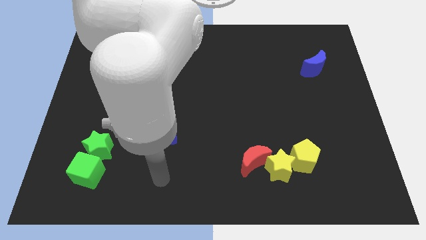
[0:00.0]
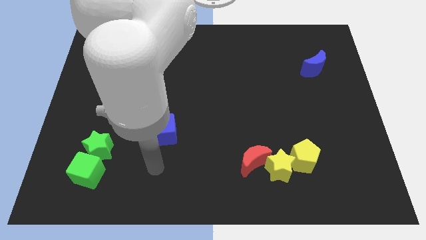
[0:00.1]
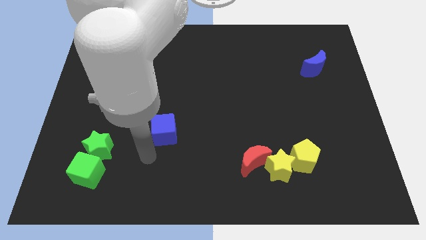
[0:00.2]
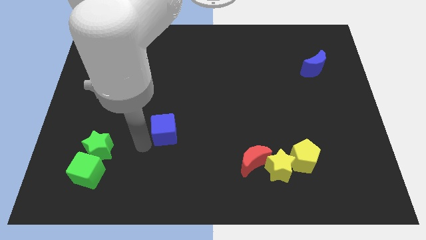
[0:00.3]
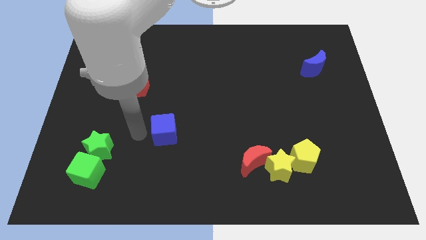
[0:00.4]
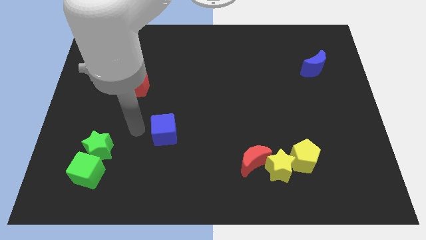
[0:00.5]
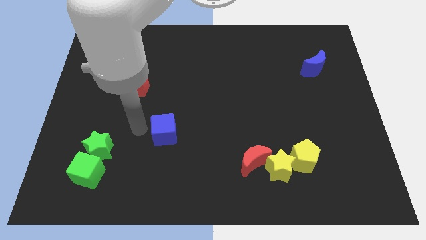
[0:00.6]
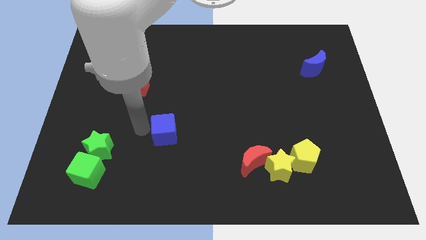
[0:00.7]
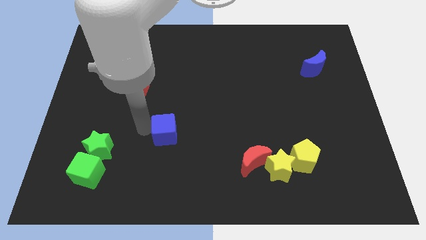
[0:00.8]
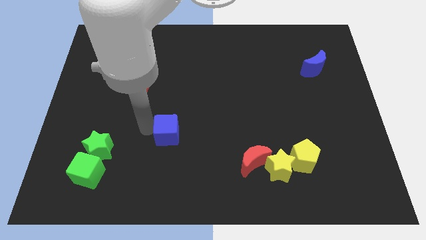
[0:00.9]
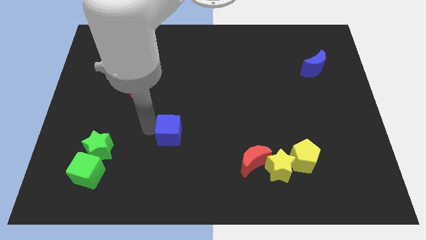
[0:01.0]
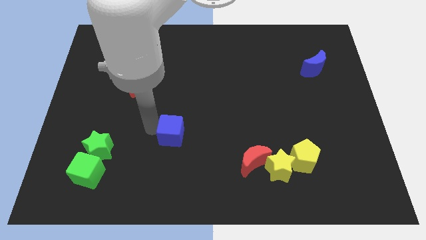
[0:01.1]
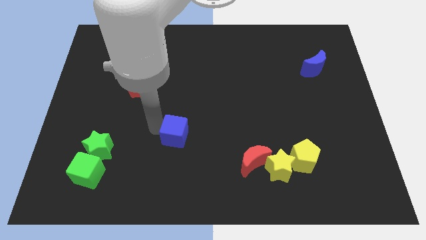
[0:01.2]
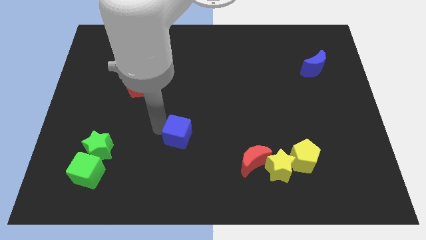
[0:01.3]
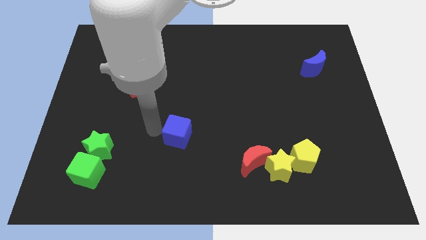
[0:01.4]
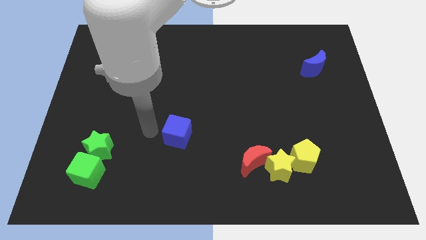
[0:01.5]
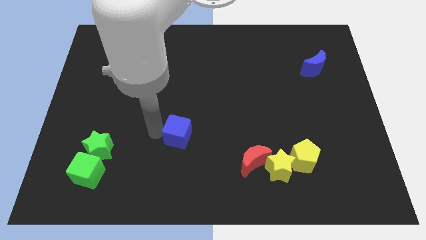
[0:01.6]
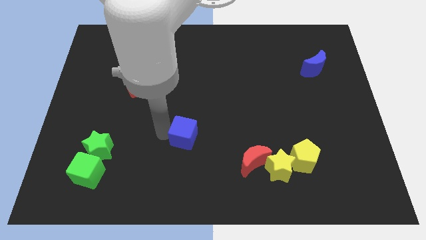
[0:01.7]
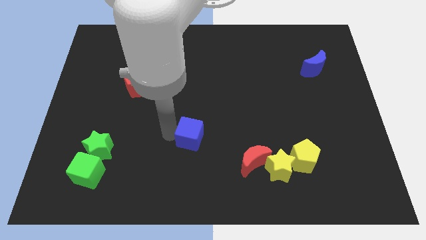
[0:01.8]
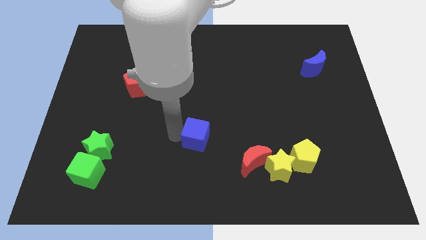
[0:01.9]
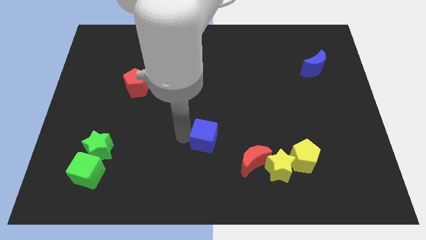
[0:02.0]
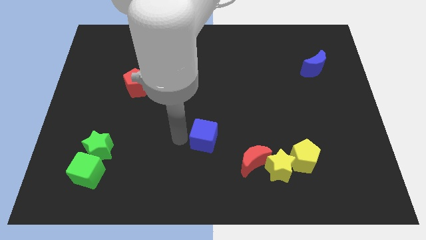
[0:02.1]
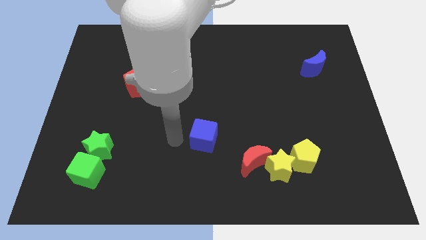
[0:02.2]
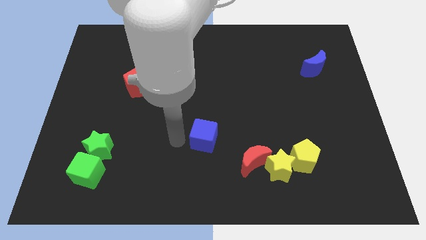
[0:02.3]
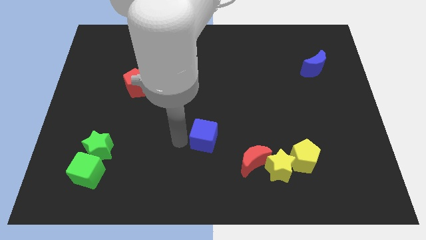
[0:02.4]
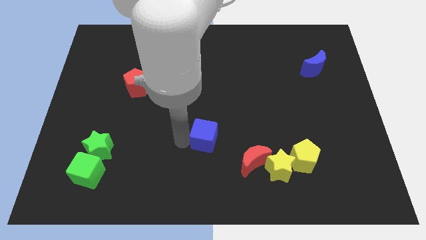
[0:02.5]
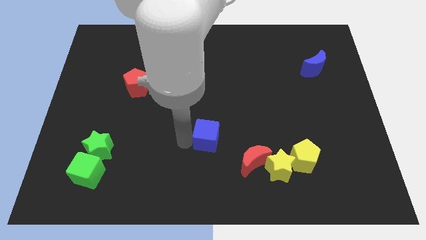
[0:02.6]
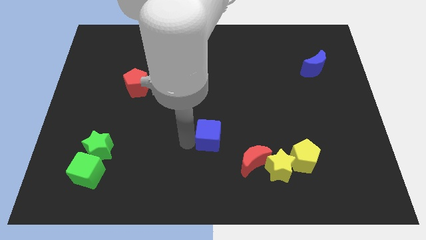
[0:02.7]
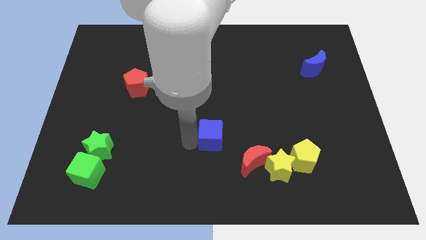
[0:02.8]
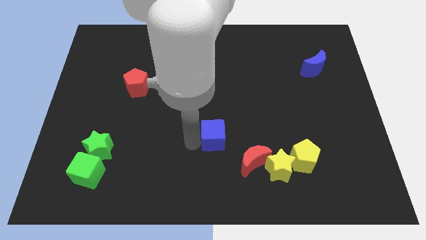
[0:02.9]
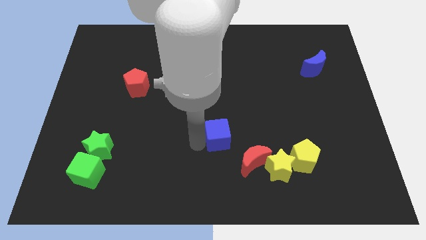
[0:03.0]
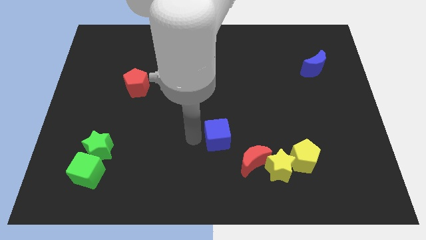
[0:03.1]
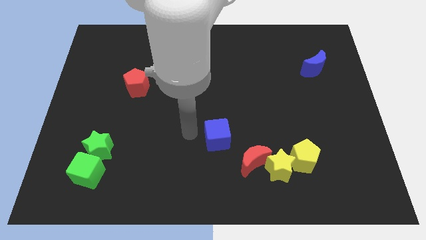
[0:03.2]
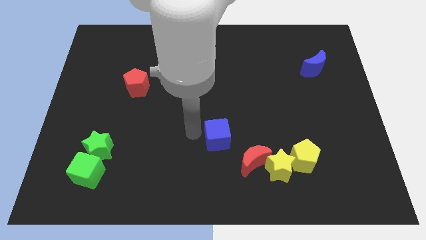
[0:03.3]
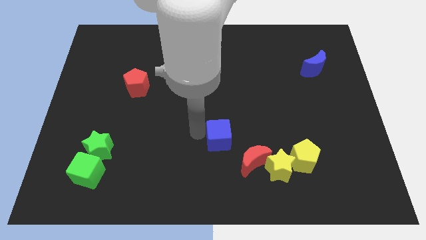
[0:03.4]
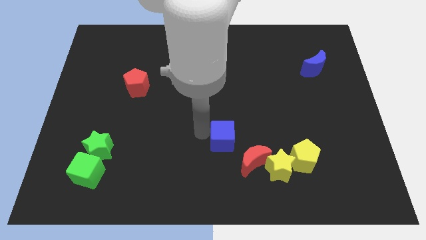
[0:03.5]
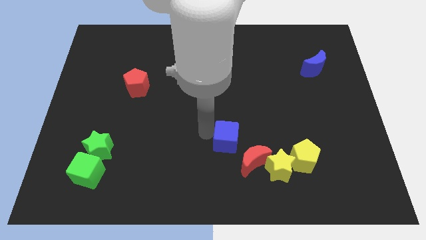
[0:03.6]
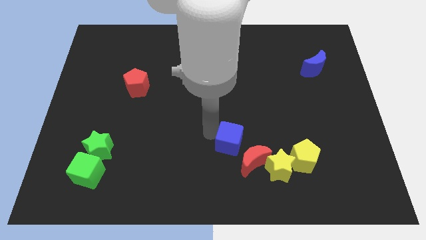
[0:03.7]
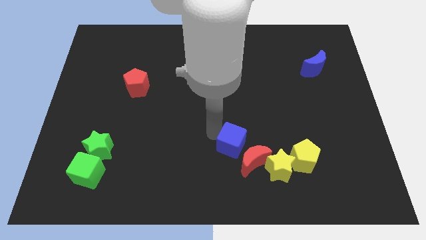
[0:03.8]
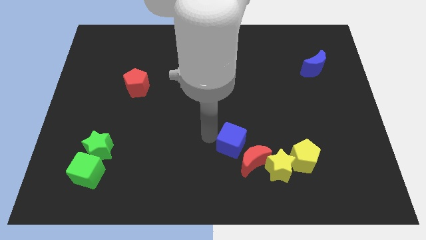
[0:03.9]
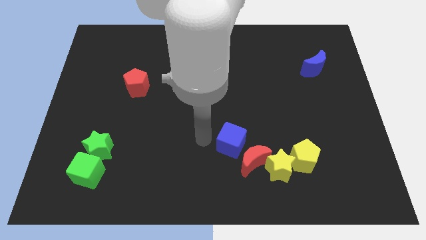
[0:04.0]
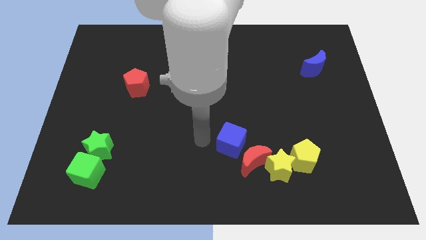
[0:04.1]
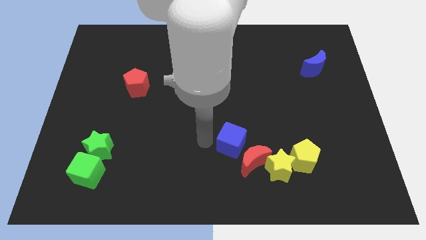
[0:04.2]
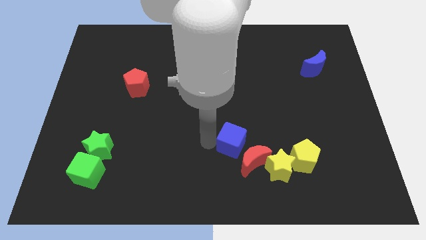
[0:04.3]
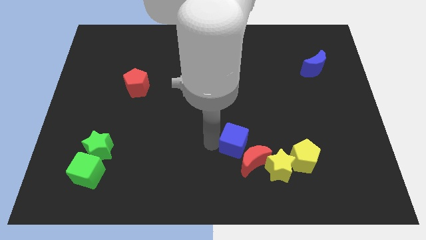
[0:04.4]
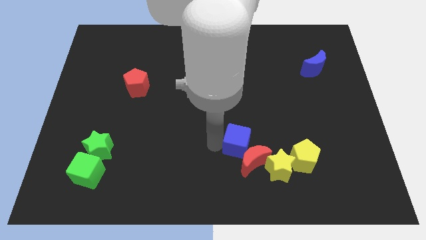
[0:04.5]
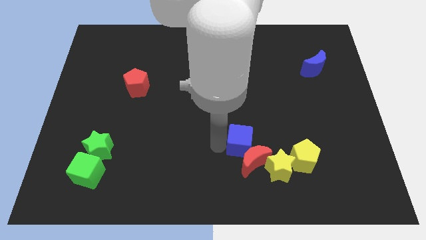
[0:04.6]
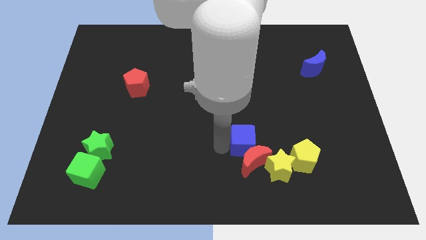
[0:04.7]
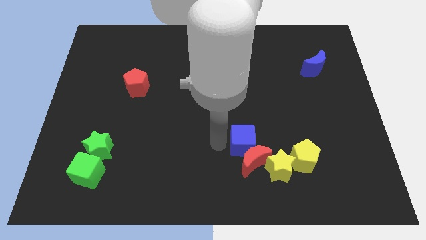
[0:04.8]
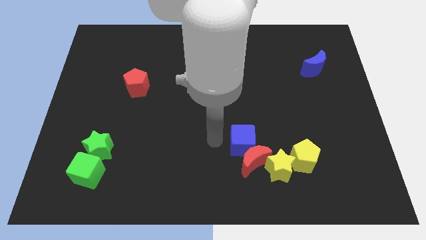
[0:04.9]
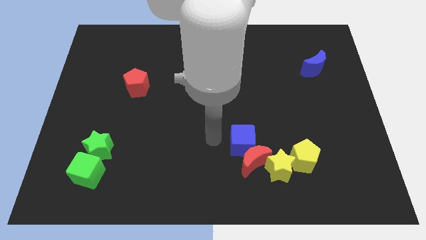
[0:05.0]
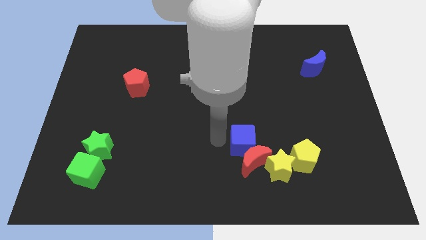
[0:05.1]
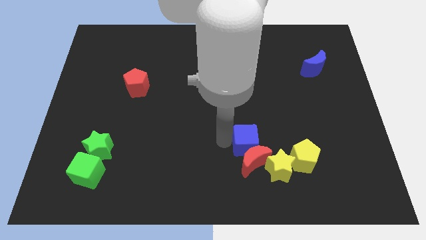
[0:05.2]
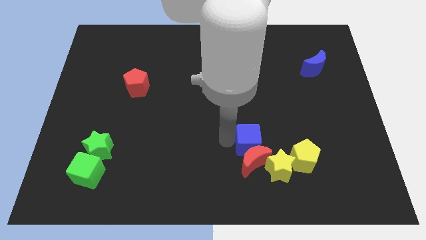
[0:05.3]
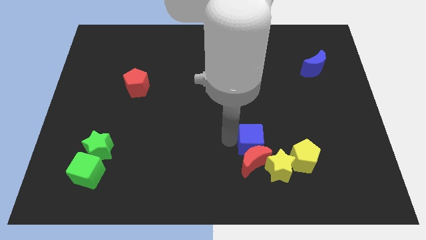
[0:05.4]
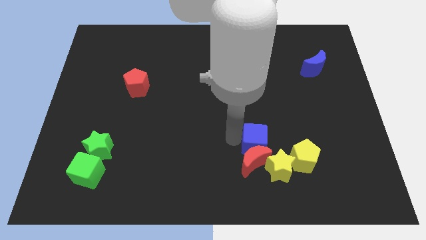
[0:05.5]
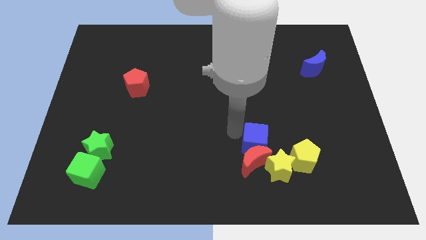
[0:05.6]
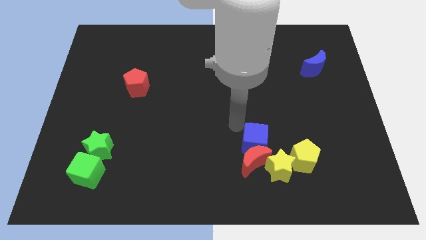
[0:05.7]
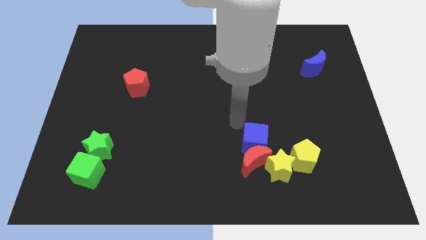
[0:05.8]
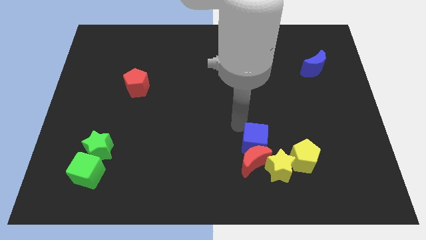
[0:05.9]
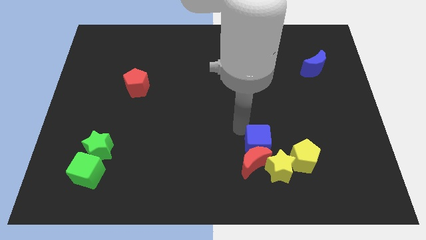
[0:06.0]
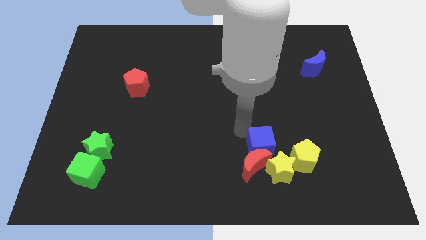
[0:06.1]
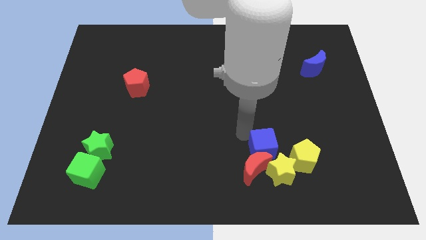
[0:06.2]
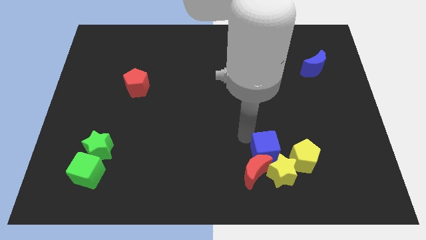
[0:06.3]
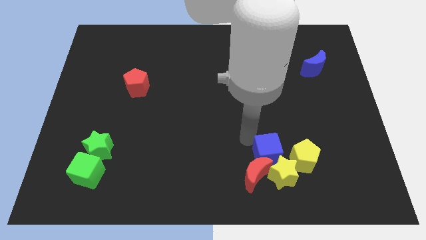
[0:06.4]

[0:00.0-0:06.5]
push the blue cube close to the yellow star
